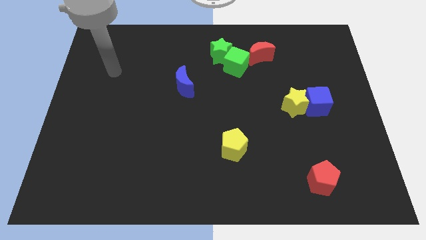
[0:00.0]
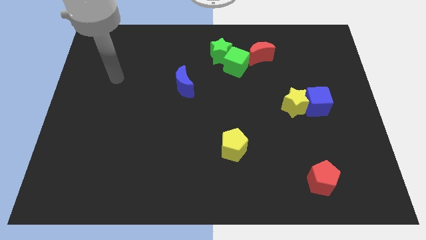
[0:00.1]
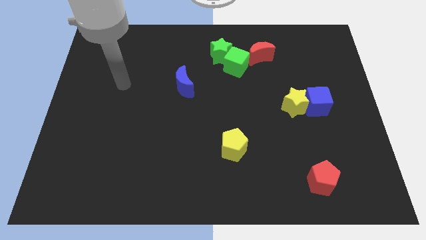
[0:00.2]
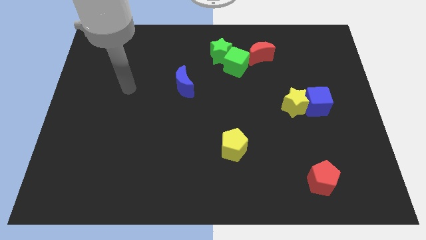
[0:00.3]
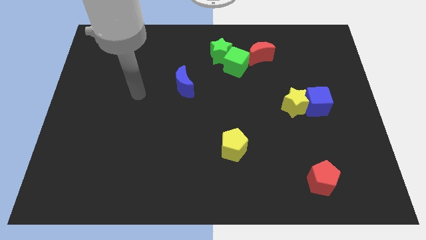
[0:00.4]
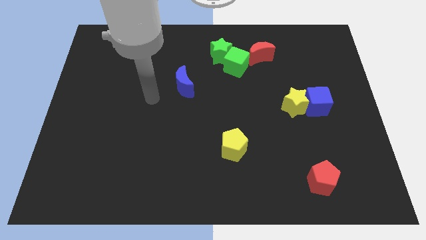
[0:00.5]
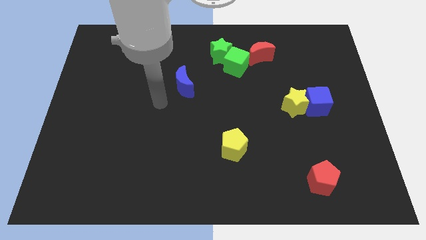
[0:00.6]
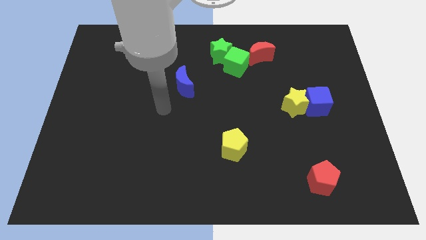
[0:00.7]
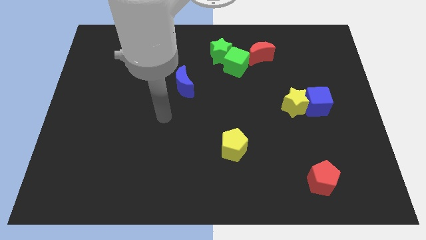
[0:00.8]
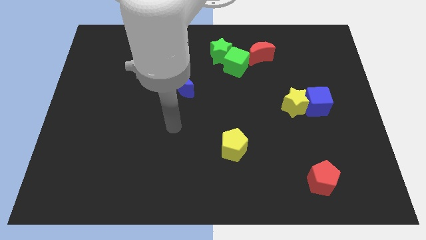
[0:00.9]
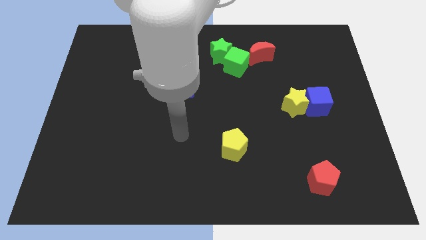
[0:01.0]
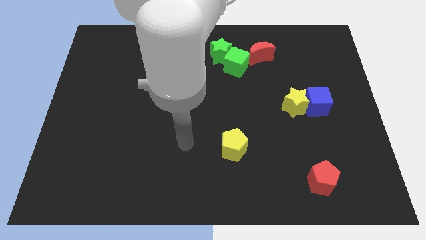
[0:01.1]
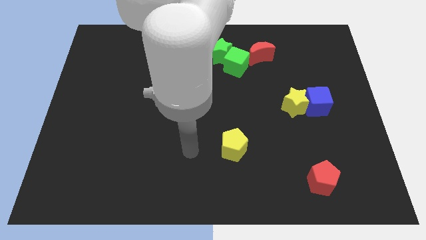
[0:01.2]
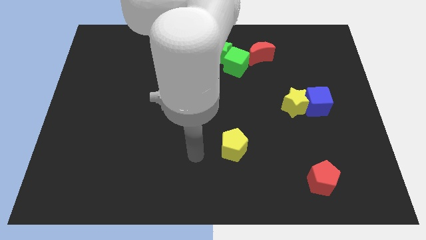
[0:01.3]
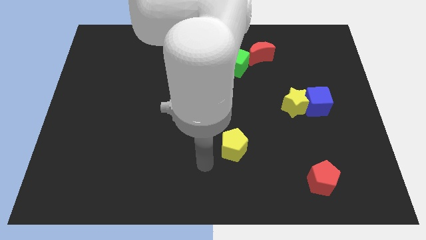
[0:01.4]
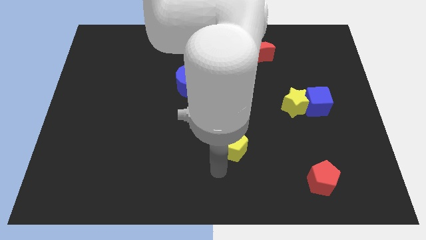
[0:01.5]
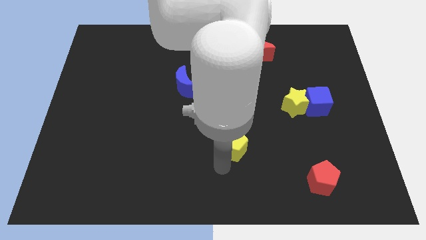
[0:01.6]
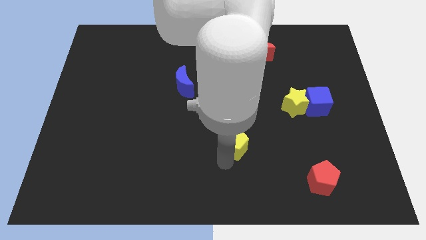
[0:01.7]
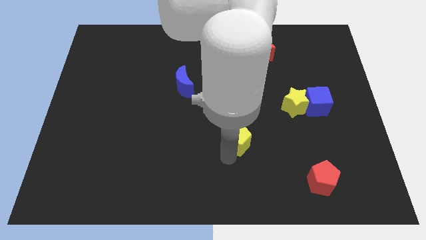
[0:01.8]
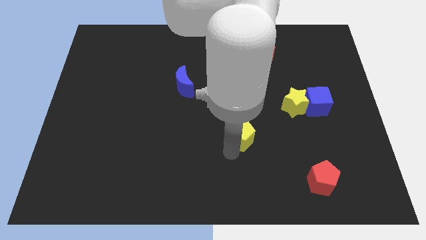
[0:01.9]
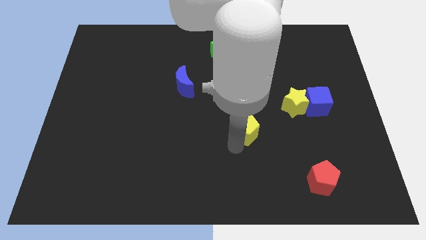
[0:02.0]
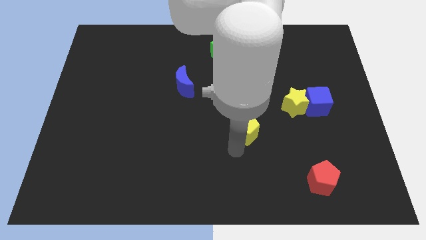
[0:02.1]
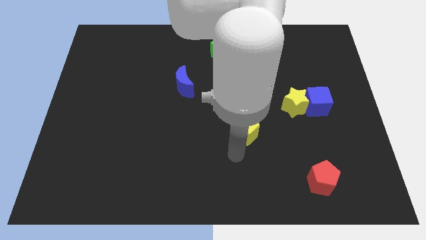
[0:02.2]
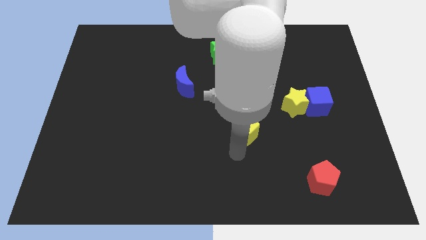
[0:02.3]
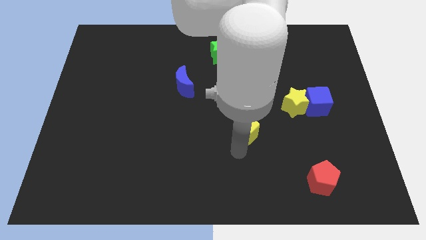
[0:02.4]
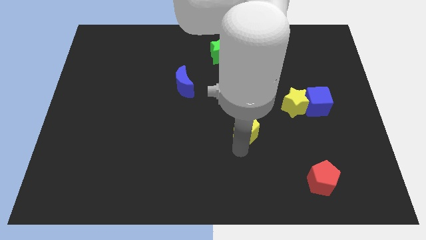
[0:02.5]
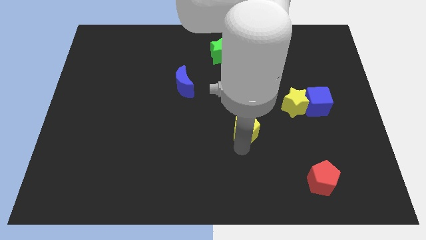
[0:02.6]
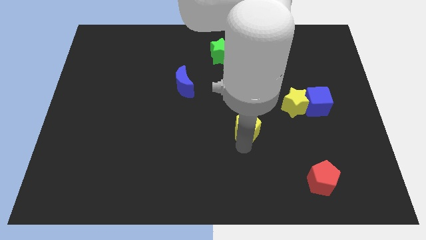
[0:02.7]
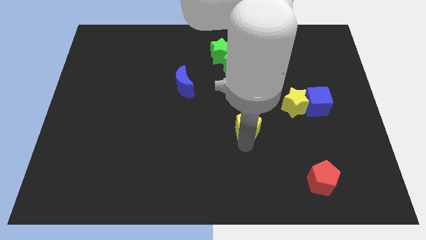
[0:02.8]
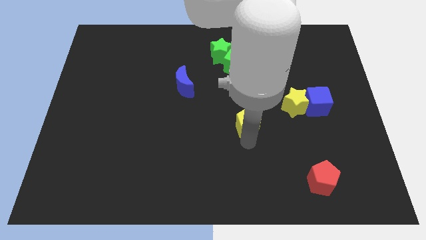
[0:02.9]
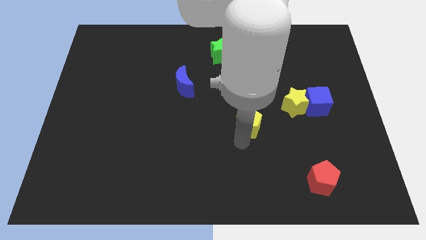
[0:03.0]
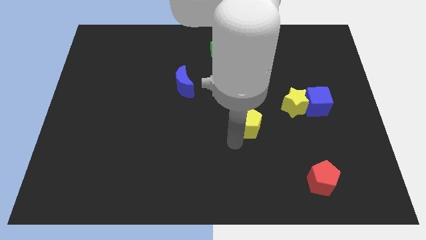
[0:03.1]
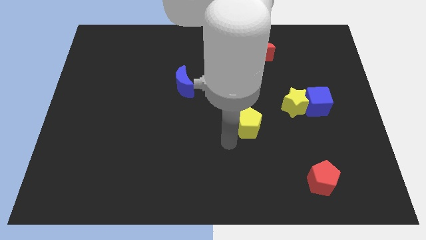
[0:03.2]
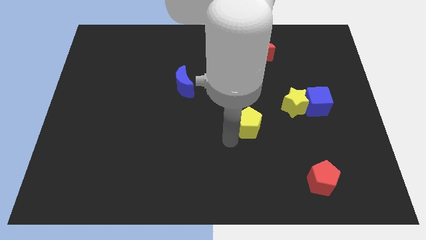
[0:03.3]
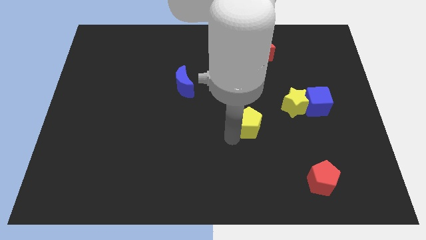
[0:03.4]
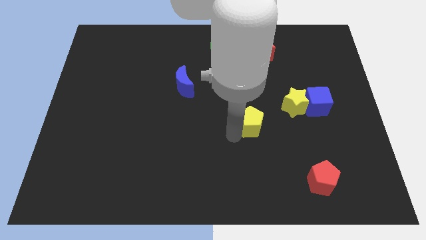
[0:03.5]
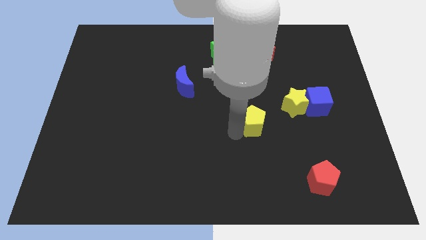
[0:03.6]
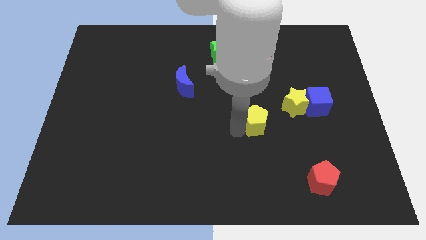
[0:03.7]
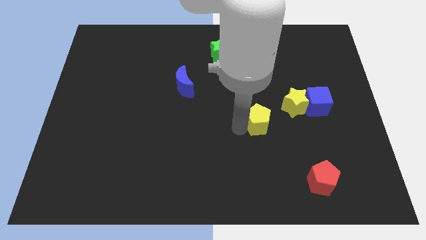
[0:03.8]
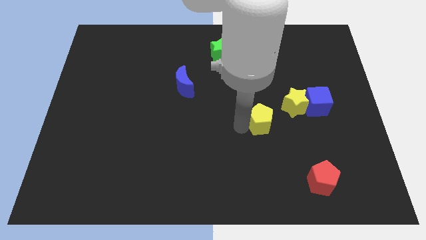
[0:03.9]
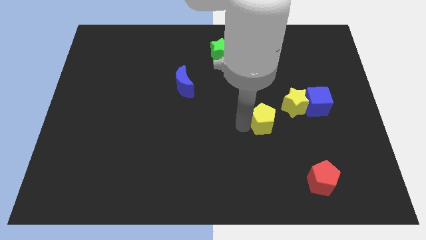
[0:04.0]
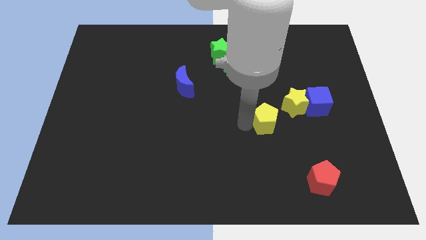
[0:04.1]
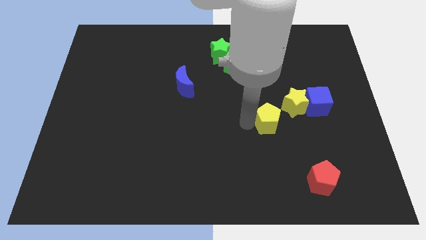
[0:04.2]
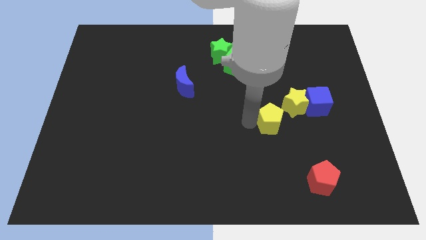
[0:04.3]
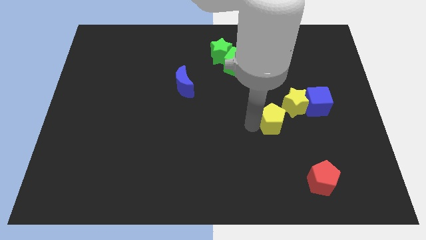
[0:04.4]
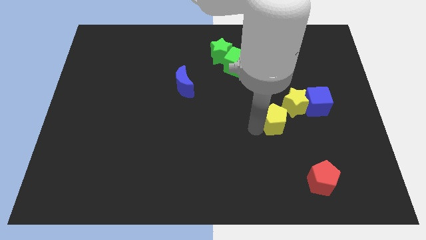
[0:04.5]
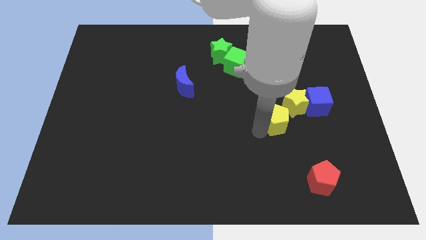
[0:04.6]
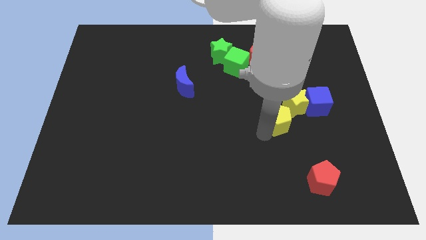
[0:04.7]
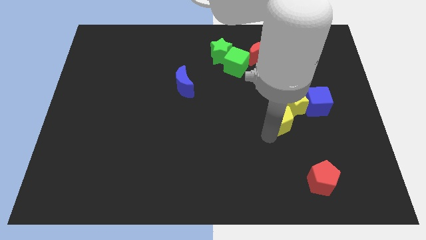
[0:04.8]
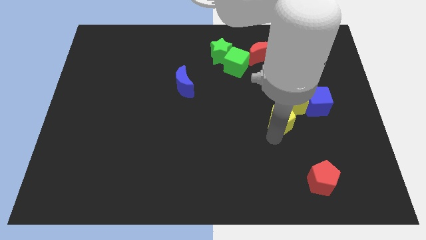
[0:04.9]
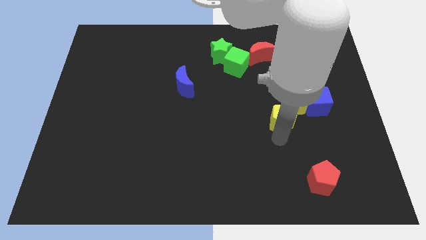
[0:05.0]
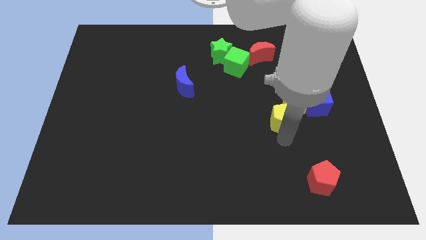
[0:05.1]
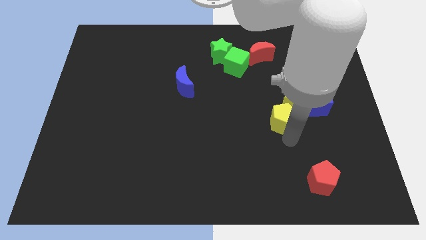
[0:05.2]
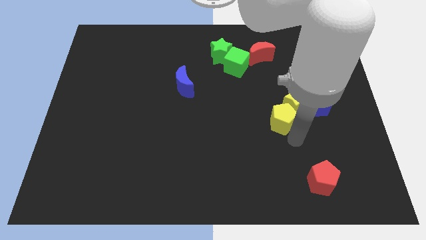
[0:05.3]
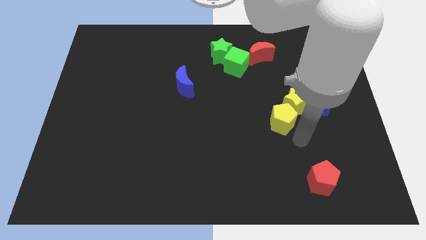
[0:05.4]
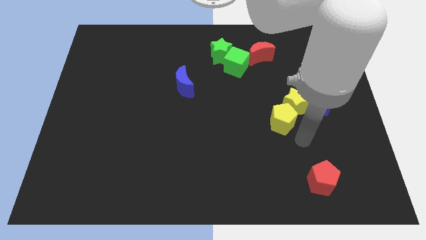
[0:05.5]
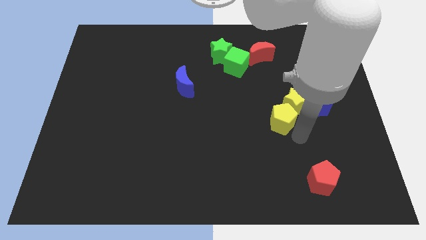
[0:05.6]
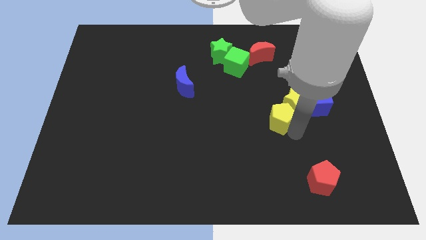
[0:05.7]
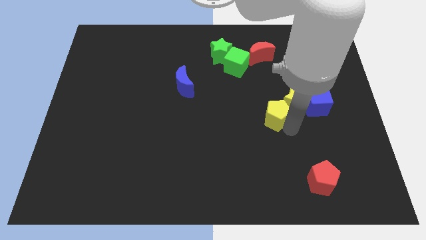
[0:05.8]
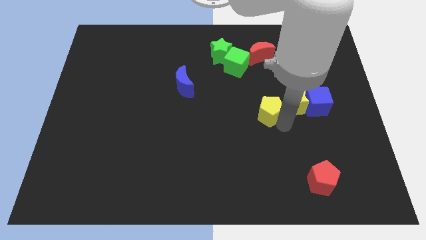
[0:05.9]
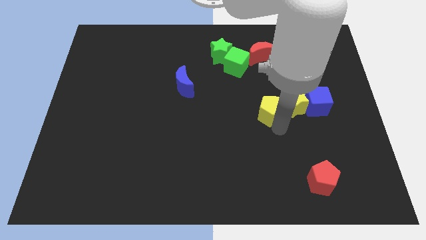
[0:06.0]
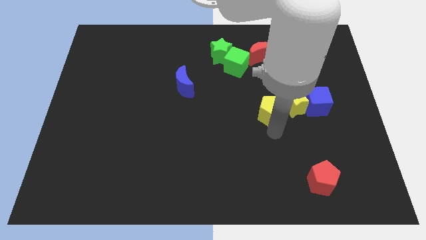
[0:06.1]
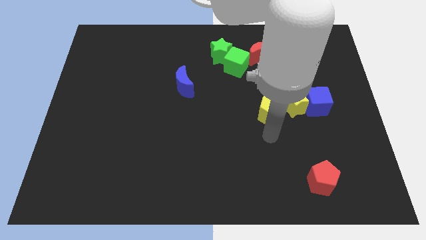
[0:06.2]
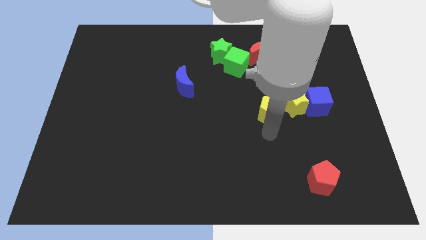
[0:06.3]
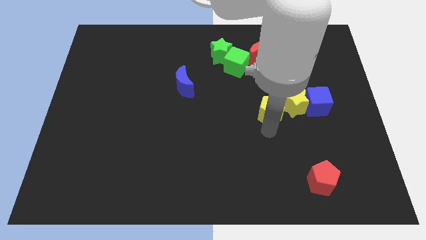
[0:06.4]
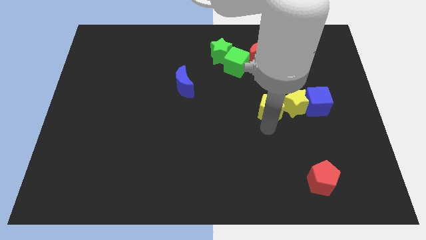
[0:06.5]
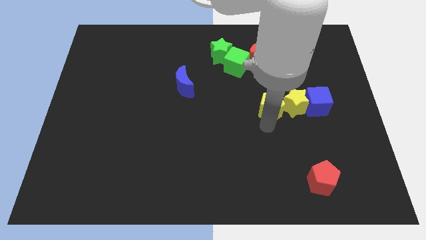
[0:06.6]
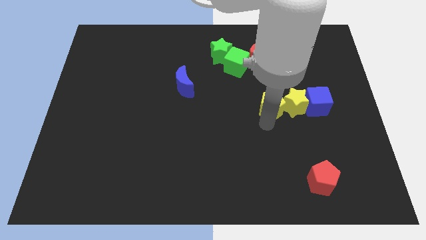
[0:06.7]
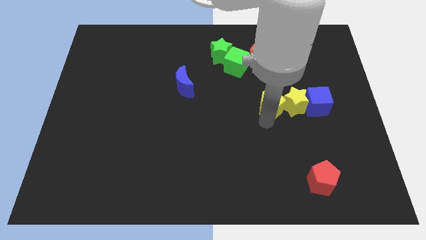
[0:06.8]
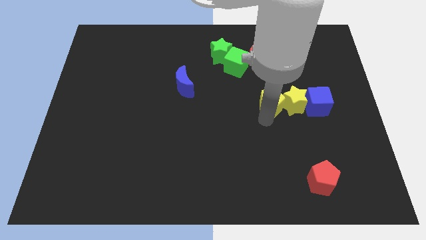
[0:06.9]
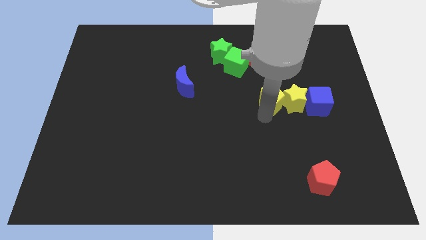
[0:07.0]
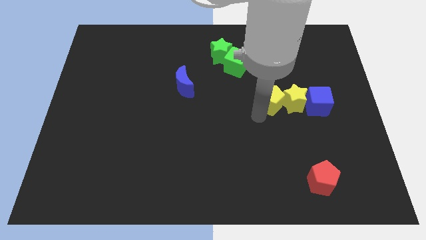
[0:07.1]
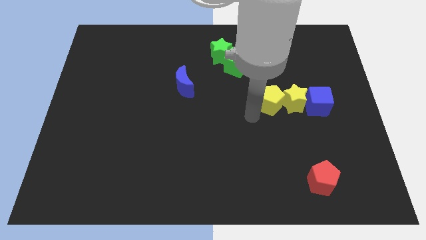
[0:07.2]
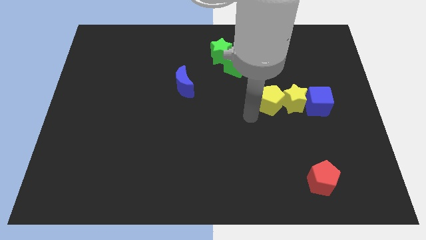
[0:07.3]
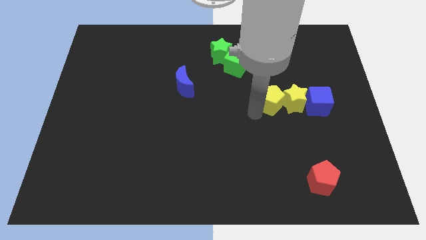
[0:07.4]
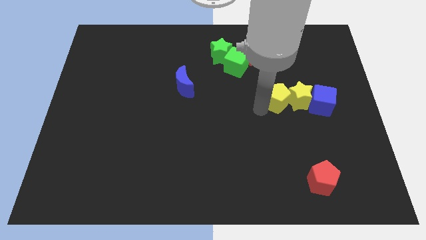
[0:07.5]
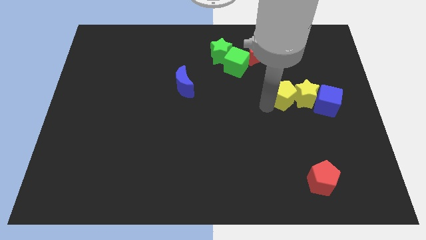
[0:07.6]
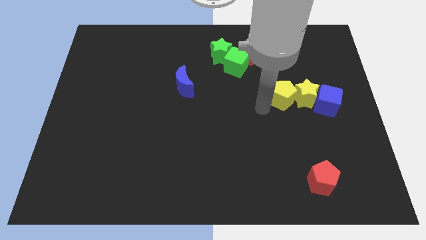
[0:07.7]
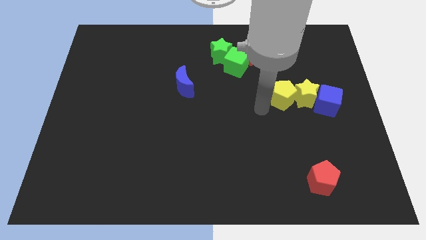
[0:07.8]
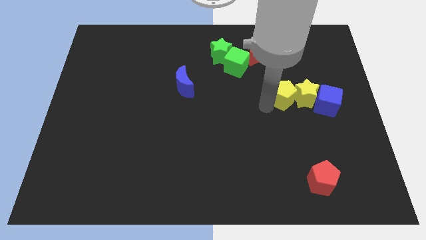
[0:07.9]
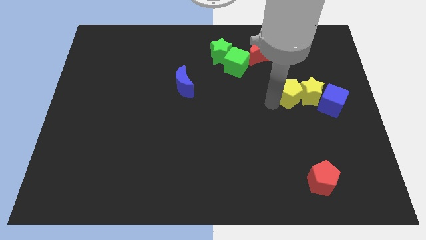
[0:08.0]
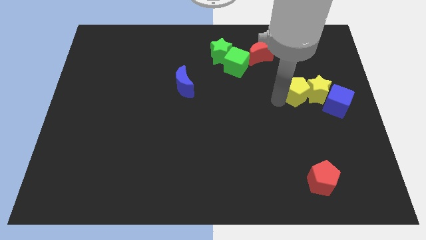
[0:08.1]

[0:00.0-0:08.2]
push the yellow pentagon diagonally up and to the left of the blue cube
